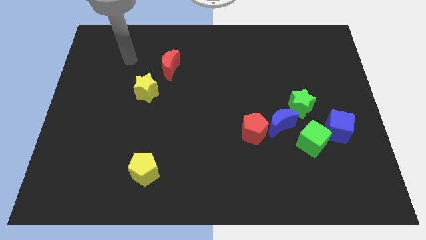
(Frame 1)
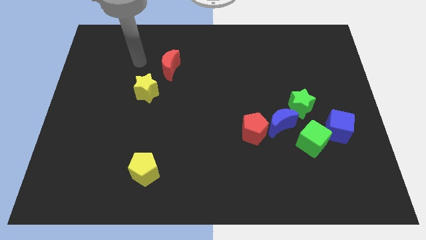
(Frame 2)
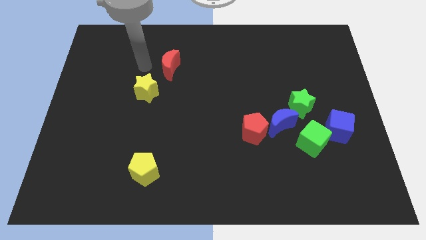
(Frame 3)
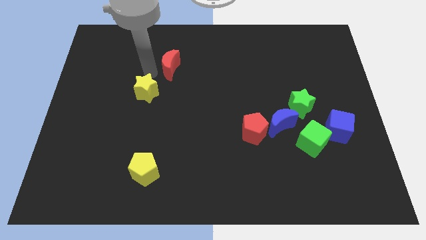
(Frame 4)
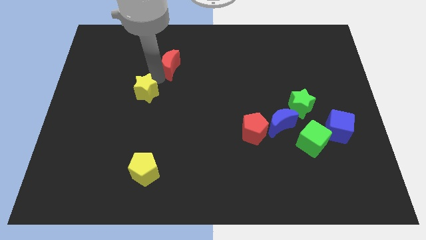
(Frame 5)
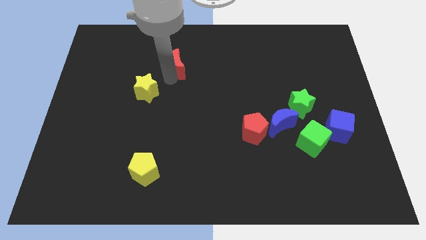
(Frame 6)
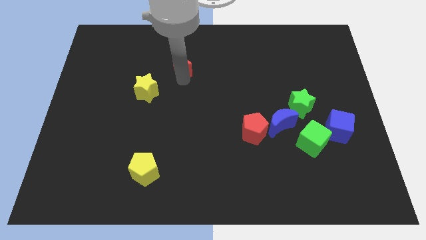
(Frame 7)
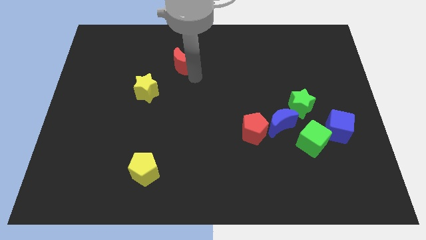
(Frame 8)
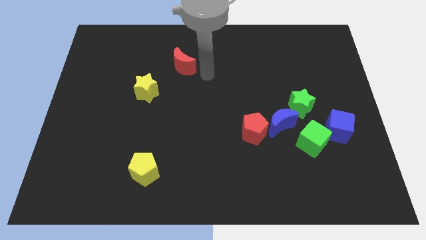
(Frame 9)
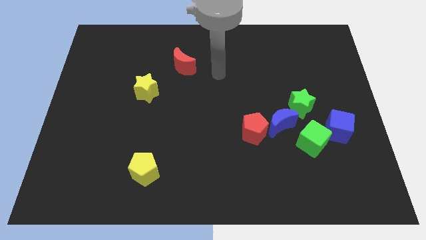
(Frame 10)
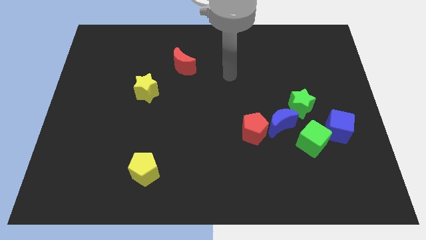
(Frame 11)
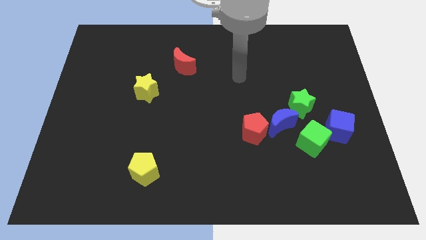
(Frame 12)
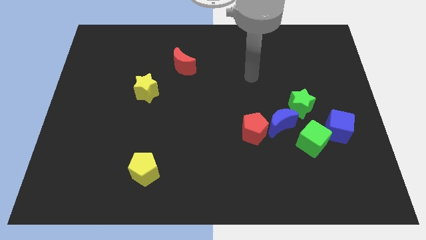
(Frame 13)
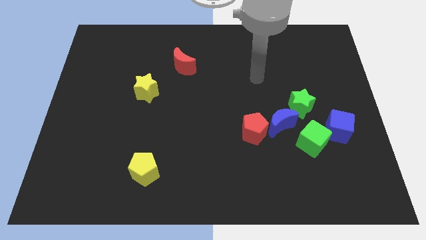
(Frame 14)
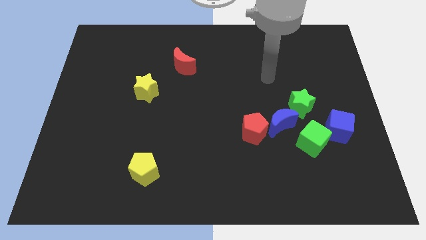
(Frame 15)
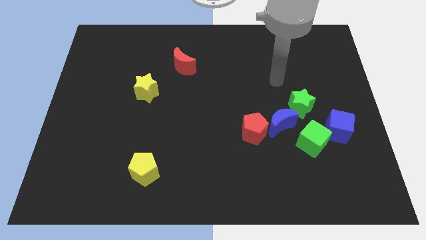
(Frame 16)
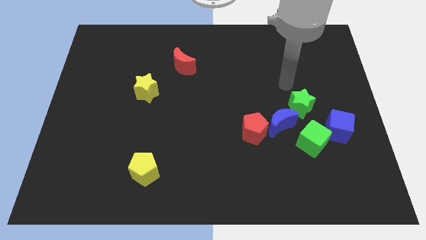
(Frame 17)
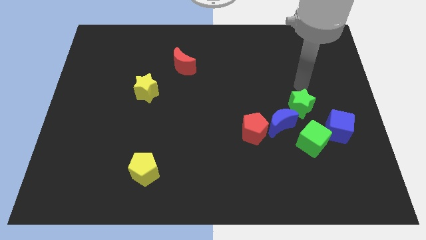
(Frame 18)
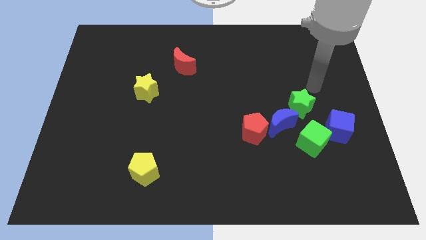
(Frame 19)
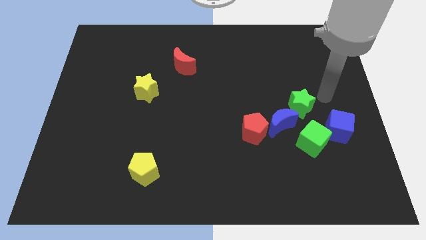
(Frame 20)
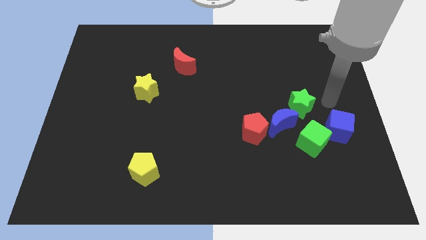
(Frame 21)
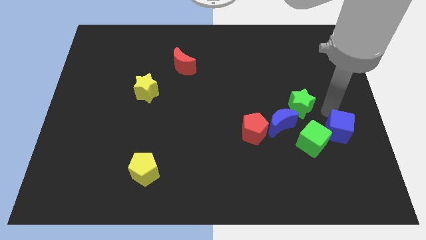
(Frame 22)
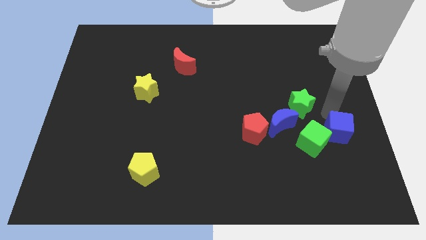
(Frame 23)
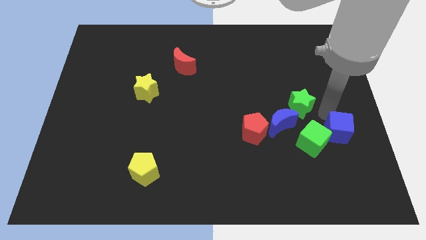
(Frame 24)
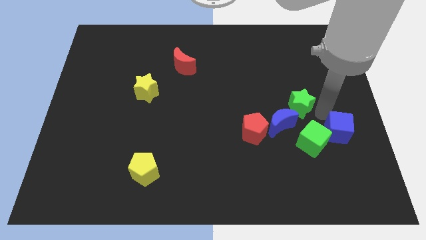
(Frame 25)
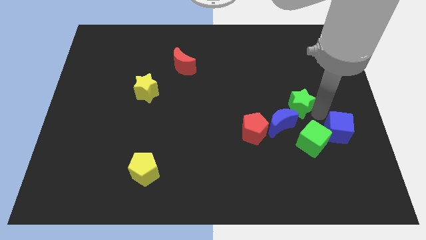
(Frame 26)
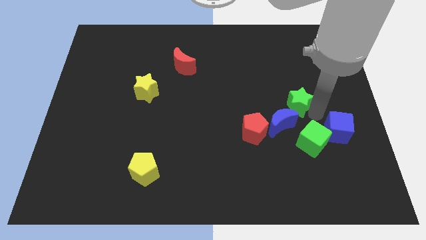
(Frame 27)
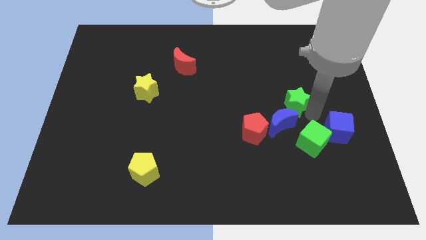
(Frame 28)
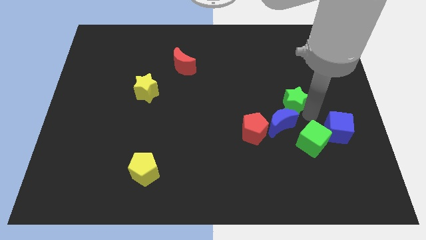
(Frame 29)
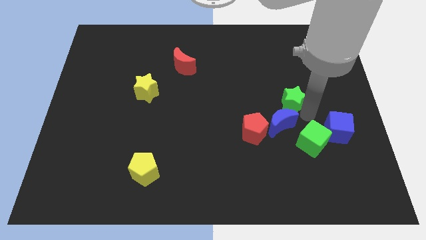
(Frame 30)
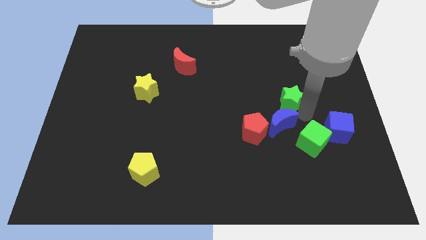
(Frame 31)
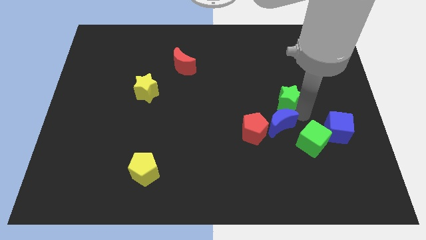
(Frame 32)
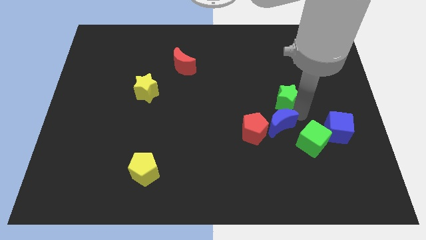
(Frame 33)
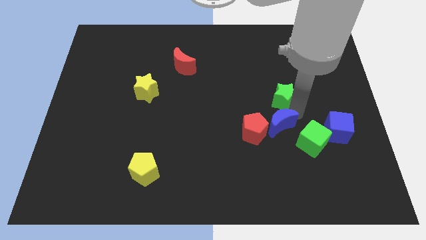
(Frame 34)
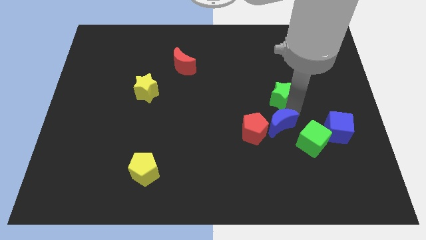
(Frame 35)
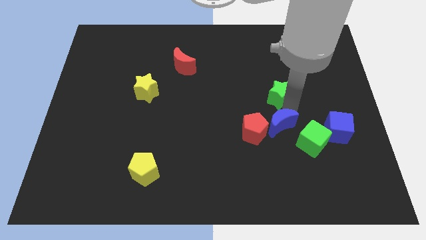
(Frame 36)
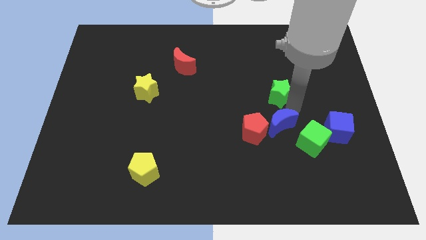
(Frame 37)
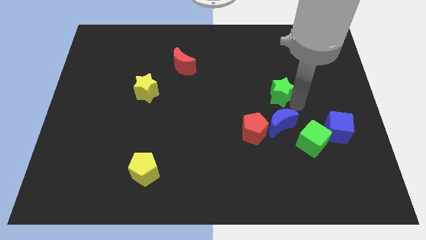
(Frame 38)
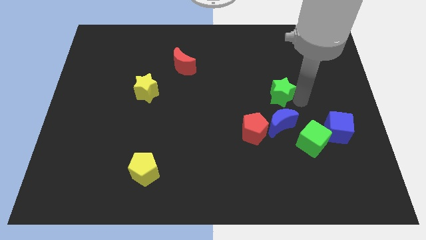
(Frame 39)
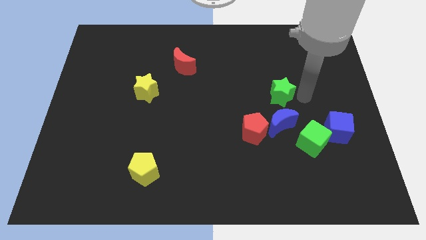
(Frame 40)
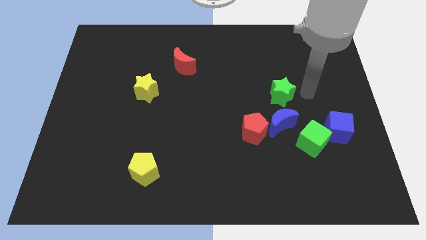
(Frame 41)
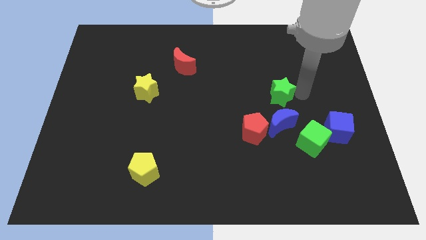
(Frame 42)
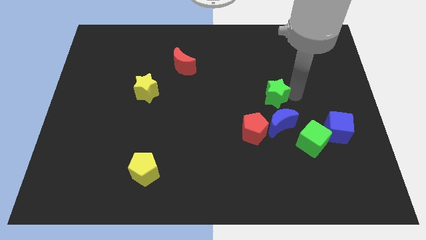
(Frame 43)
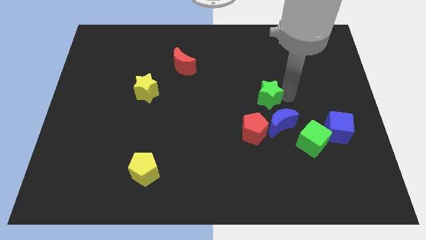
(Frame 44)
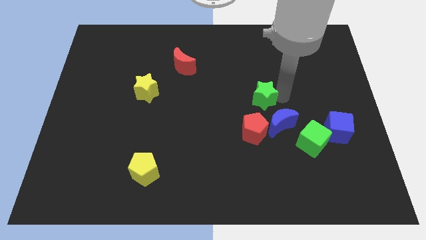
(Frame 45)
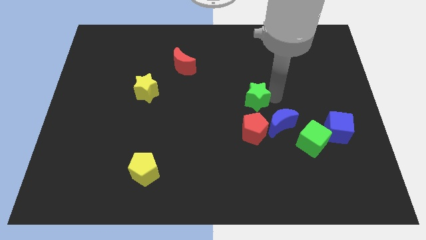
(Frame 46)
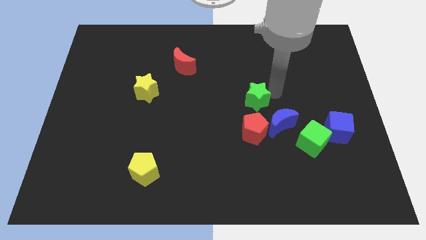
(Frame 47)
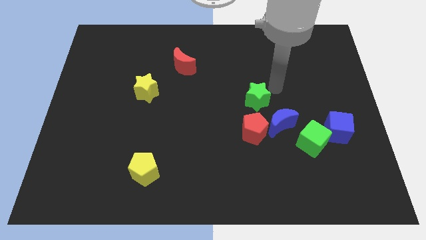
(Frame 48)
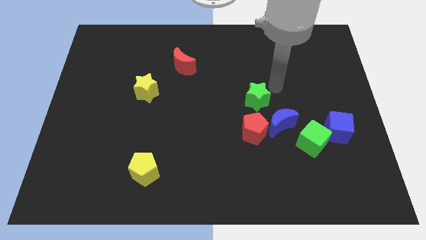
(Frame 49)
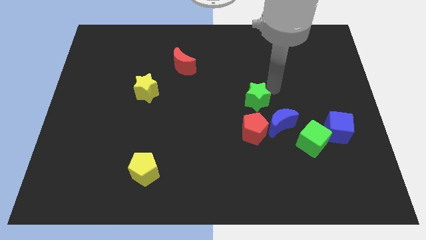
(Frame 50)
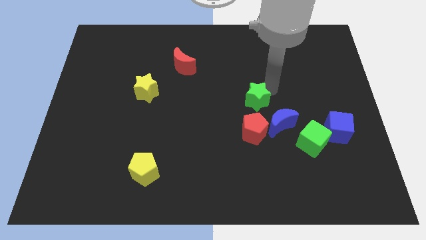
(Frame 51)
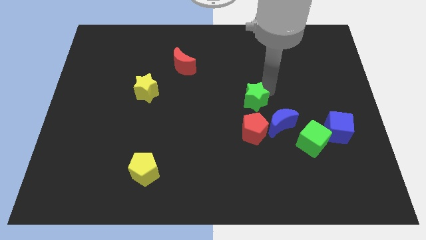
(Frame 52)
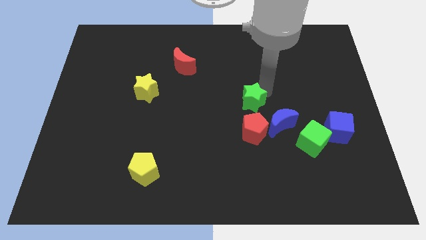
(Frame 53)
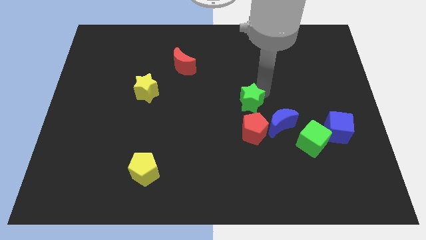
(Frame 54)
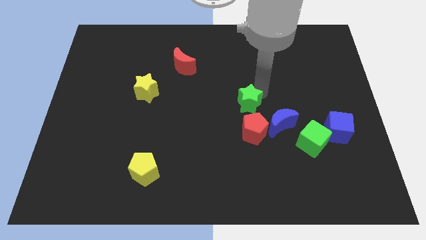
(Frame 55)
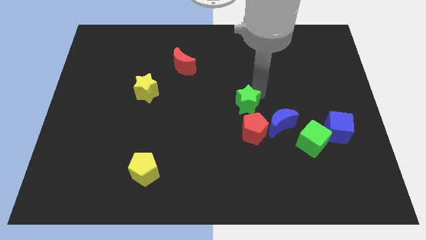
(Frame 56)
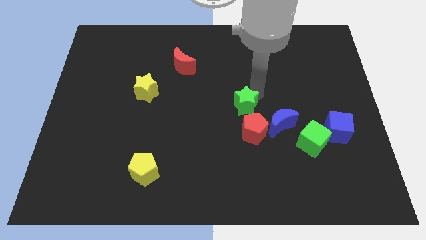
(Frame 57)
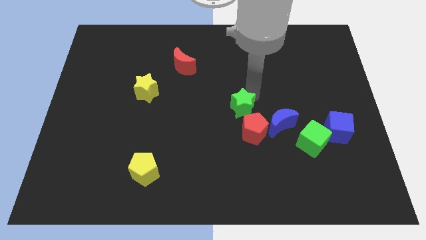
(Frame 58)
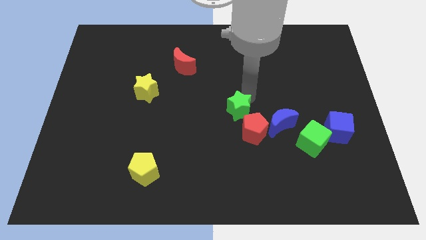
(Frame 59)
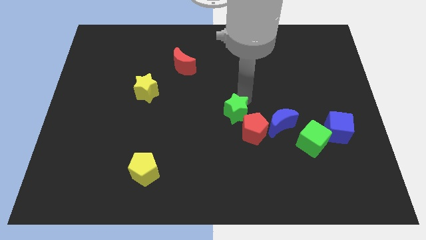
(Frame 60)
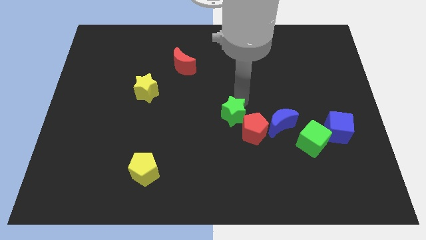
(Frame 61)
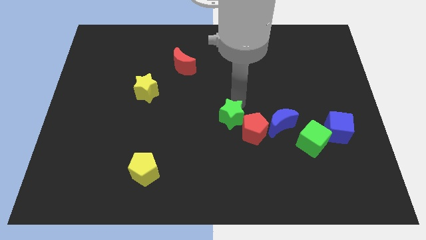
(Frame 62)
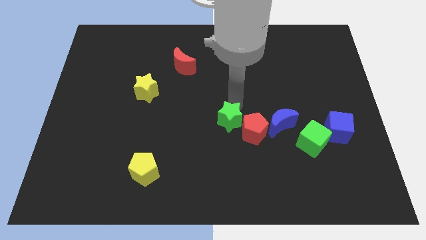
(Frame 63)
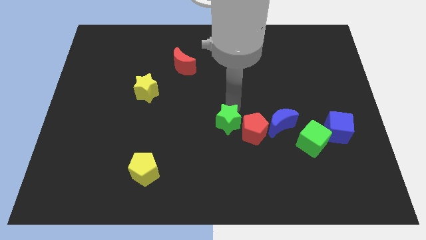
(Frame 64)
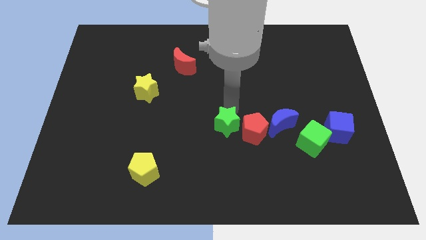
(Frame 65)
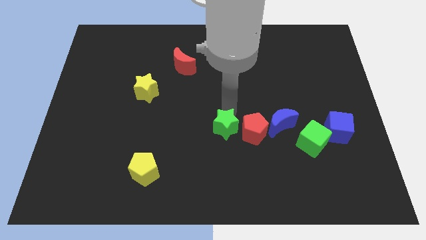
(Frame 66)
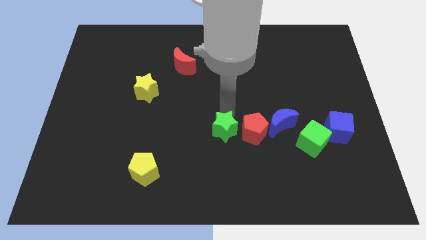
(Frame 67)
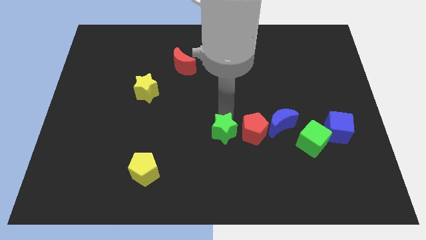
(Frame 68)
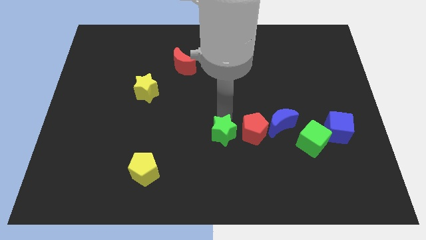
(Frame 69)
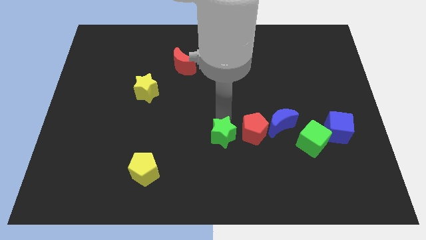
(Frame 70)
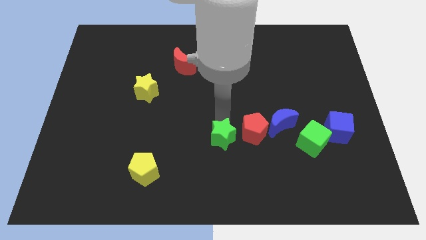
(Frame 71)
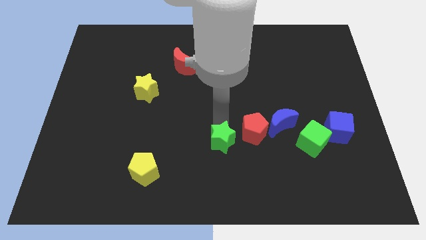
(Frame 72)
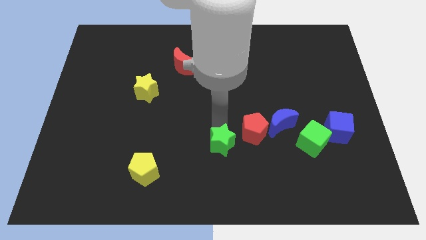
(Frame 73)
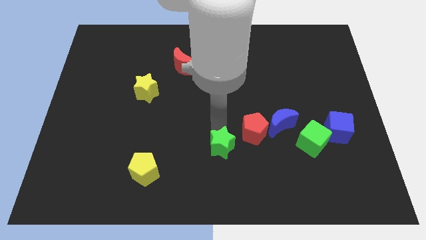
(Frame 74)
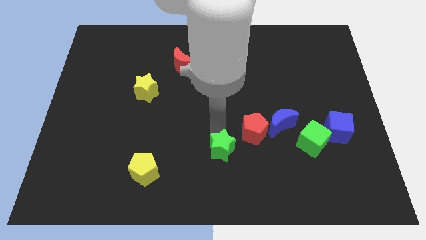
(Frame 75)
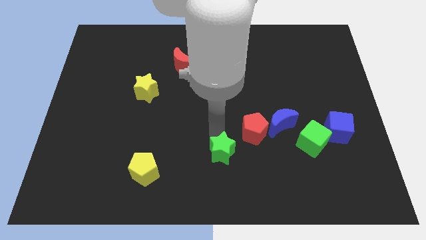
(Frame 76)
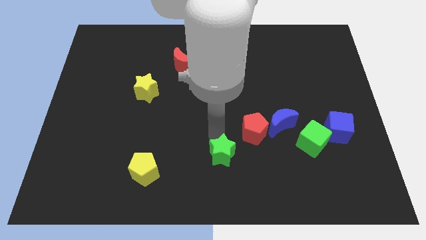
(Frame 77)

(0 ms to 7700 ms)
move the green star to the bottom
